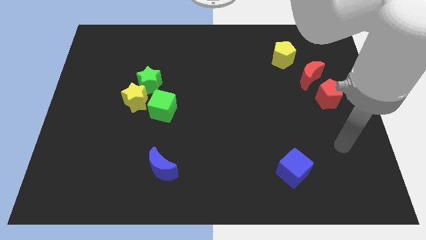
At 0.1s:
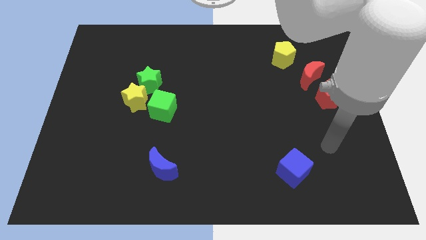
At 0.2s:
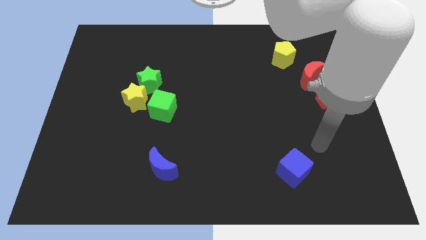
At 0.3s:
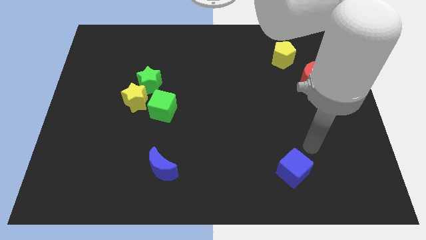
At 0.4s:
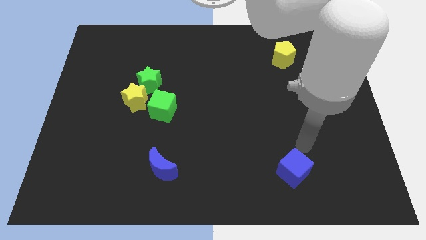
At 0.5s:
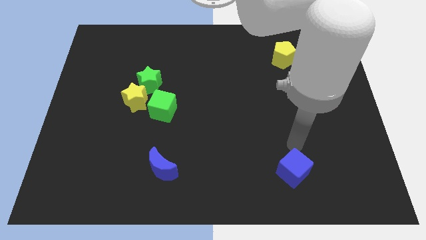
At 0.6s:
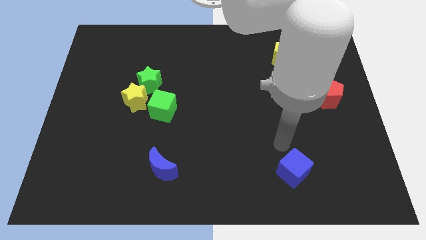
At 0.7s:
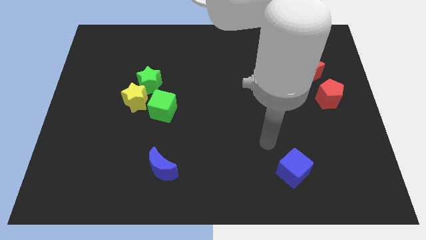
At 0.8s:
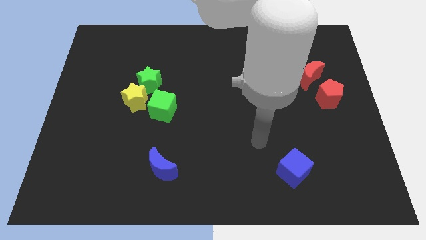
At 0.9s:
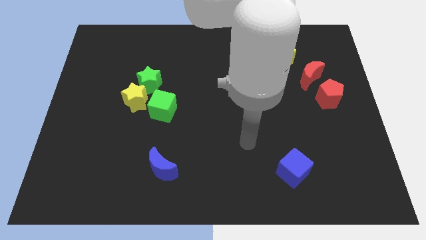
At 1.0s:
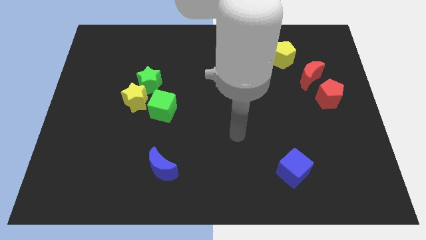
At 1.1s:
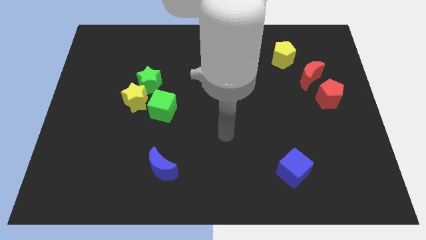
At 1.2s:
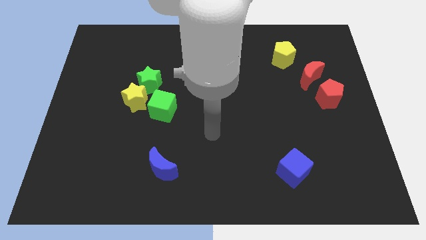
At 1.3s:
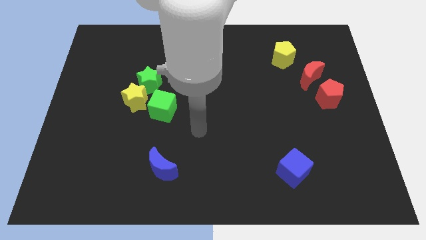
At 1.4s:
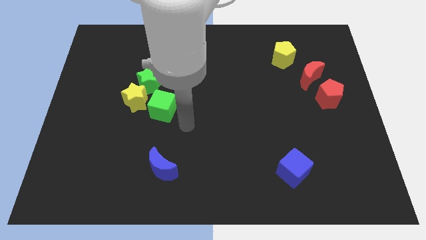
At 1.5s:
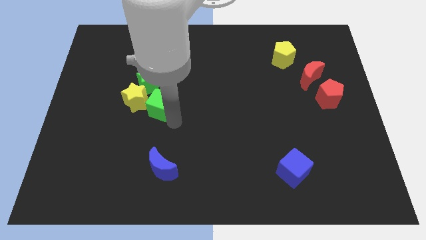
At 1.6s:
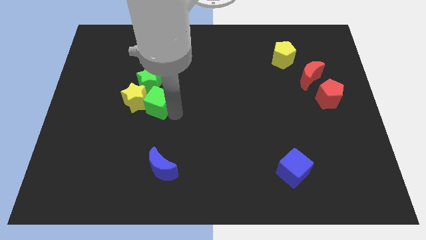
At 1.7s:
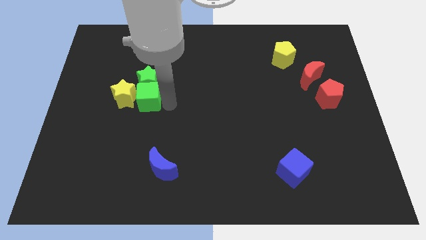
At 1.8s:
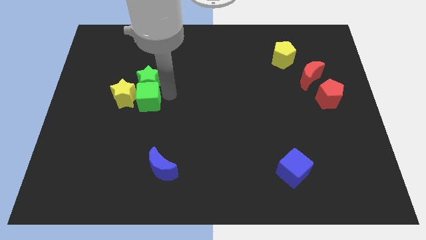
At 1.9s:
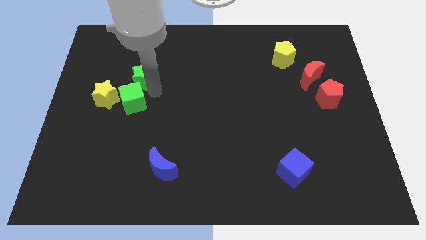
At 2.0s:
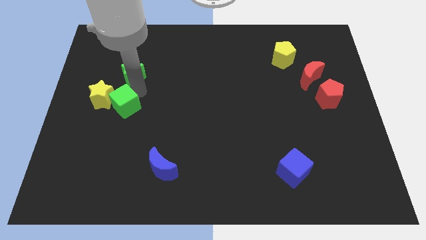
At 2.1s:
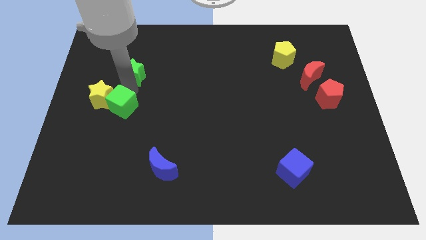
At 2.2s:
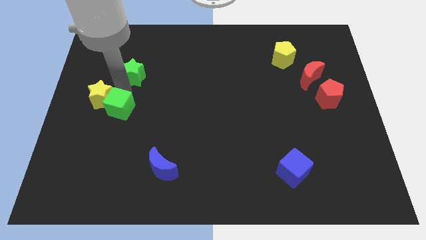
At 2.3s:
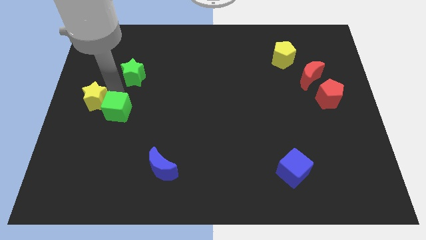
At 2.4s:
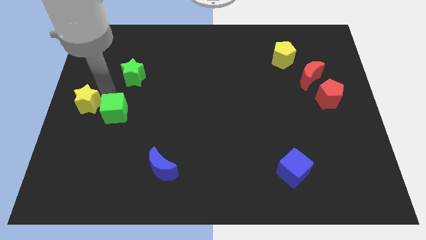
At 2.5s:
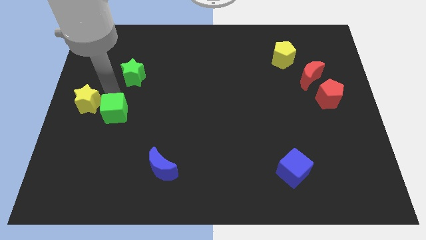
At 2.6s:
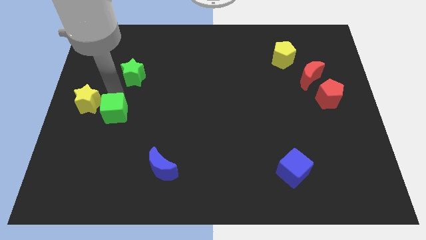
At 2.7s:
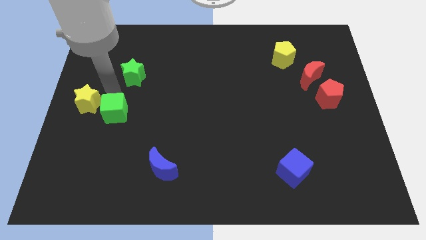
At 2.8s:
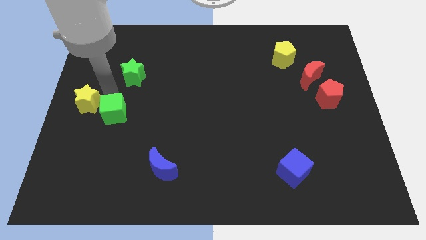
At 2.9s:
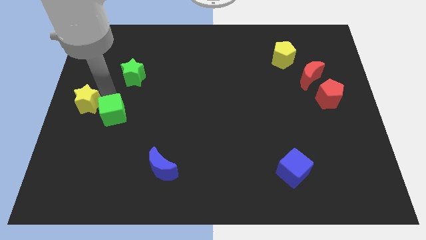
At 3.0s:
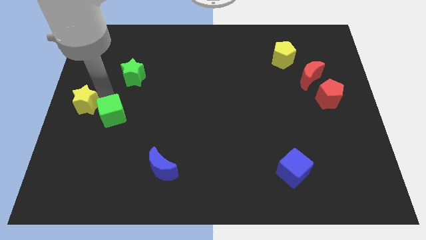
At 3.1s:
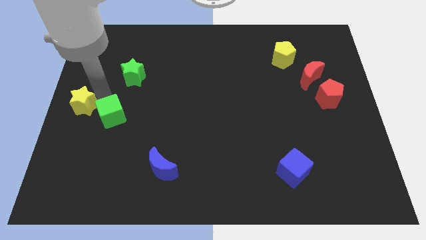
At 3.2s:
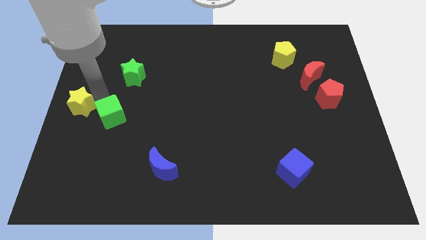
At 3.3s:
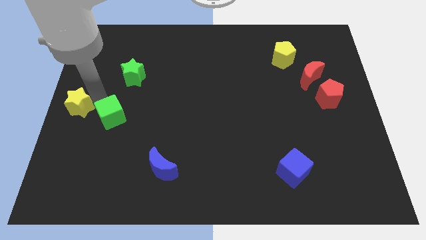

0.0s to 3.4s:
pull the yellow star apart from the green star and green cube

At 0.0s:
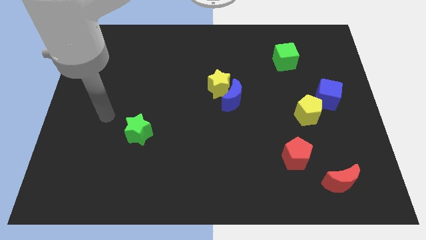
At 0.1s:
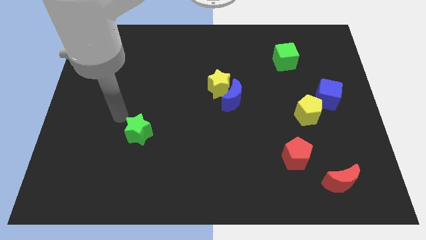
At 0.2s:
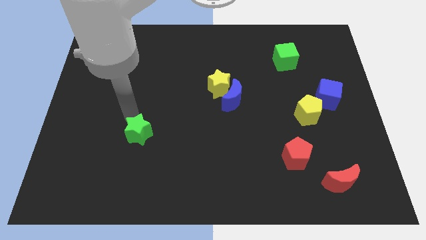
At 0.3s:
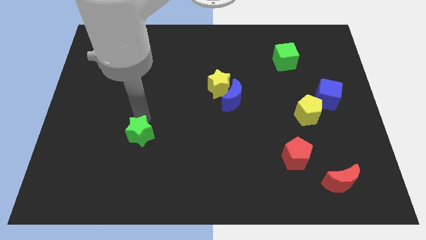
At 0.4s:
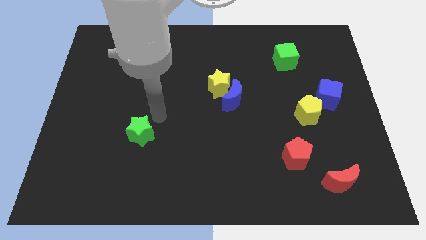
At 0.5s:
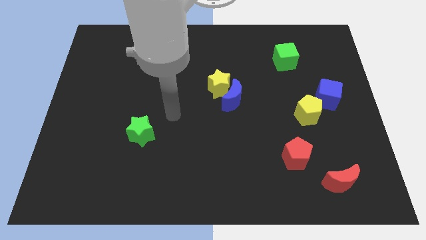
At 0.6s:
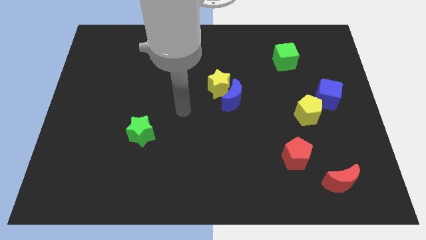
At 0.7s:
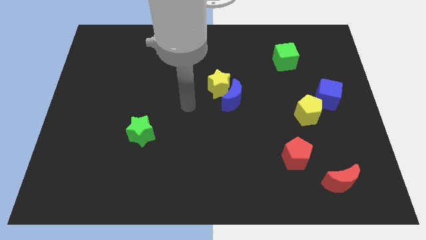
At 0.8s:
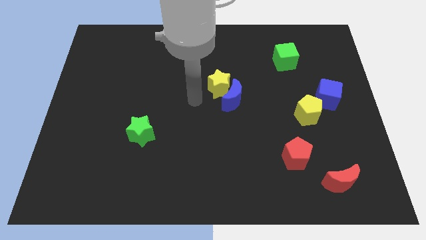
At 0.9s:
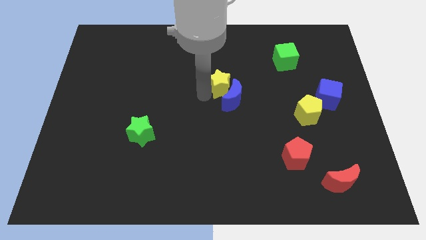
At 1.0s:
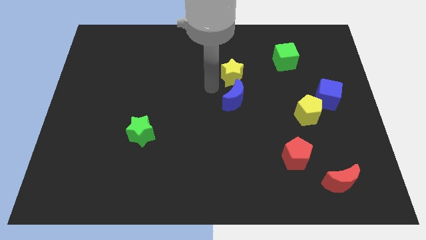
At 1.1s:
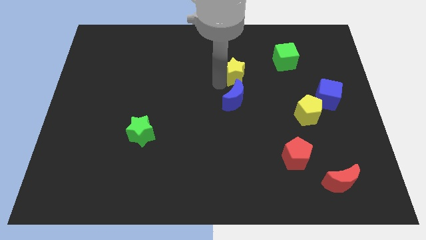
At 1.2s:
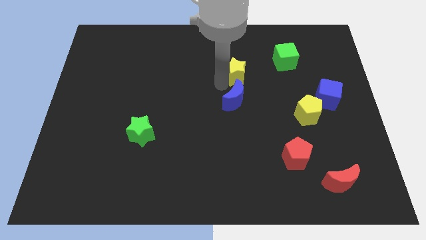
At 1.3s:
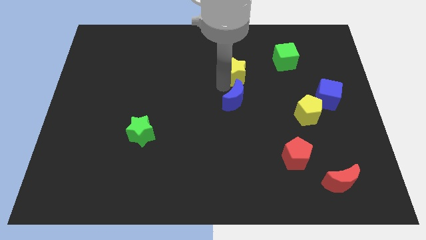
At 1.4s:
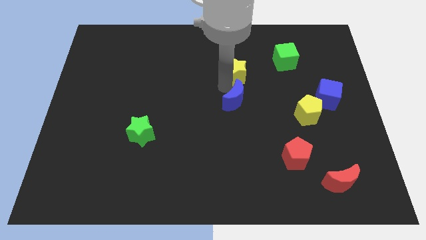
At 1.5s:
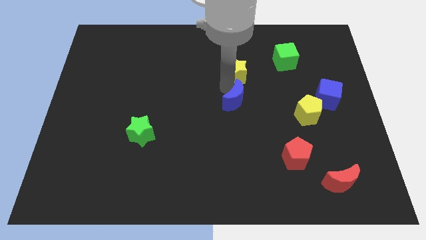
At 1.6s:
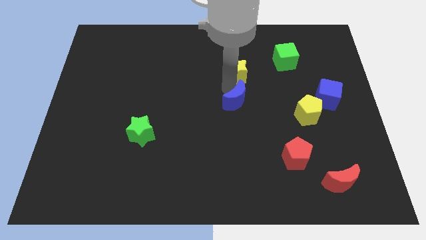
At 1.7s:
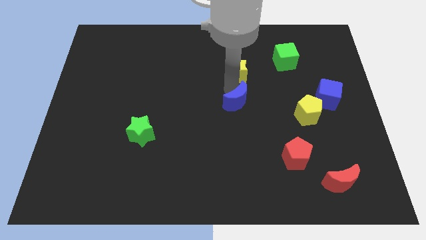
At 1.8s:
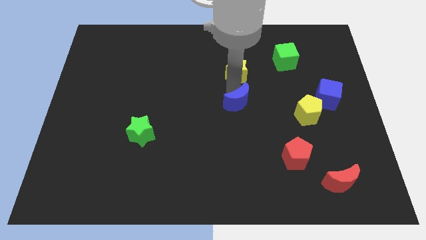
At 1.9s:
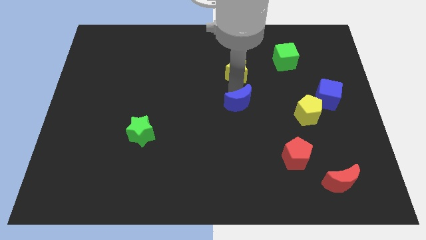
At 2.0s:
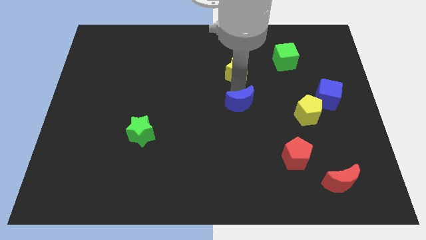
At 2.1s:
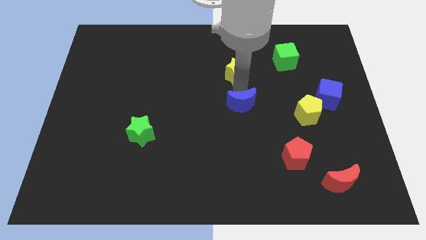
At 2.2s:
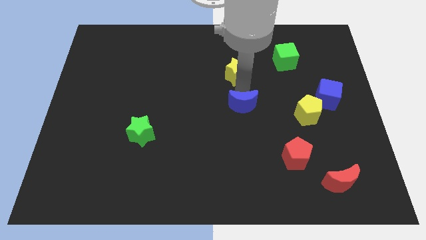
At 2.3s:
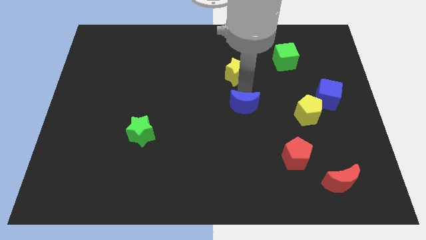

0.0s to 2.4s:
pull the blue moon apart from the yellow star

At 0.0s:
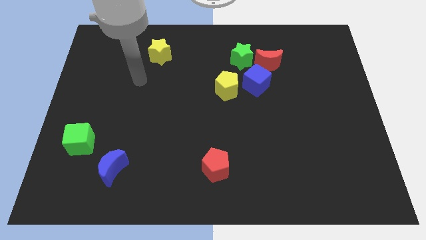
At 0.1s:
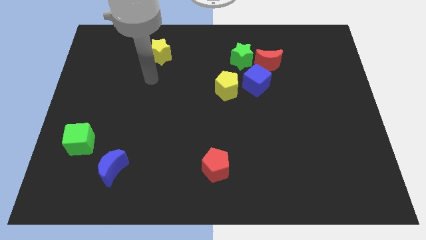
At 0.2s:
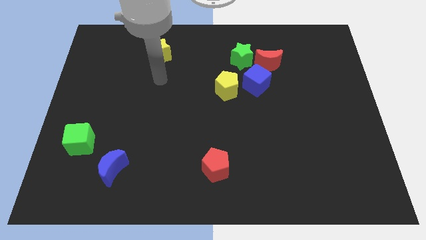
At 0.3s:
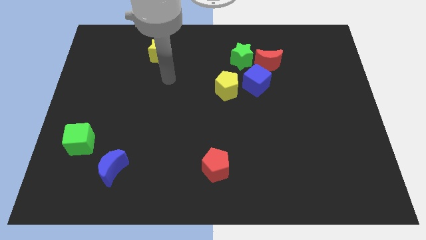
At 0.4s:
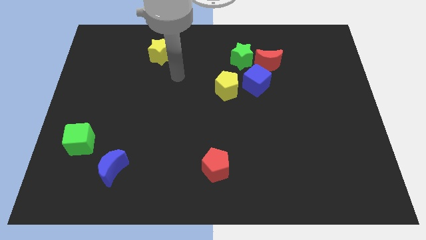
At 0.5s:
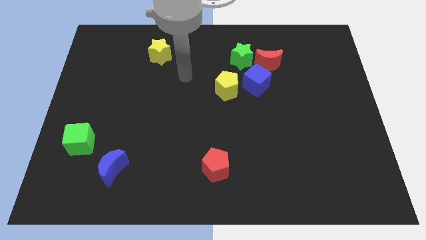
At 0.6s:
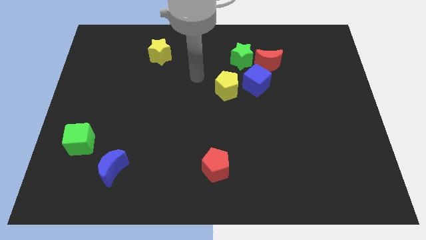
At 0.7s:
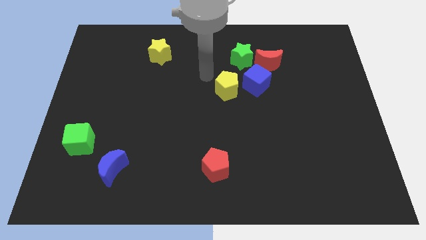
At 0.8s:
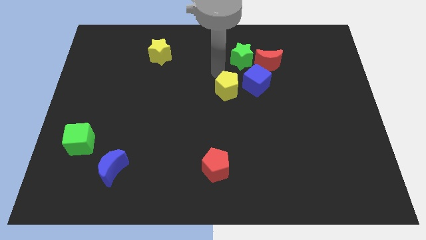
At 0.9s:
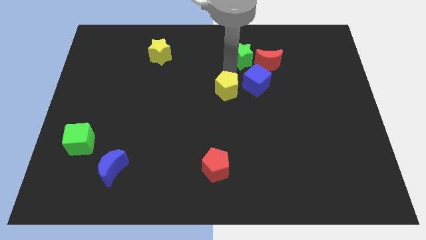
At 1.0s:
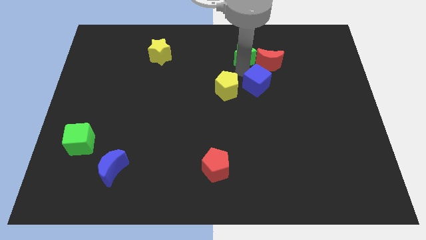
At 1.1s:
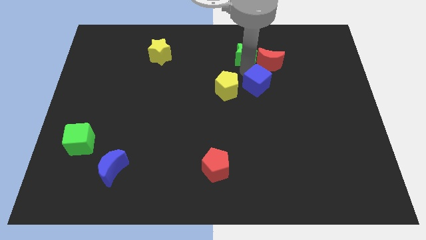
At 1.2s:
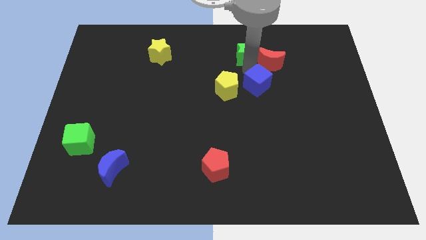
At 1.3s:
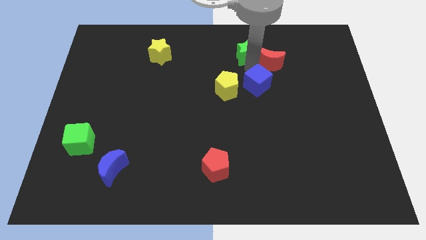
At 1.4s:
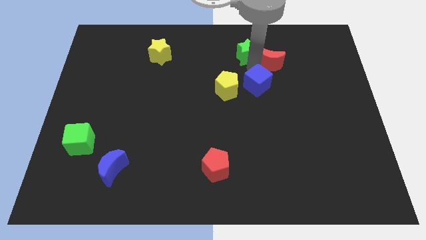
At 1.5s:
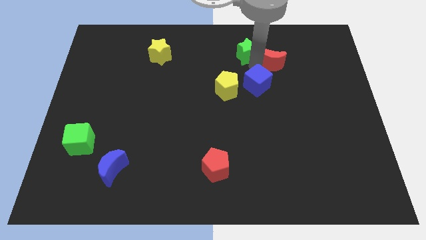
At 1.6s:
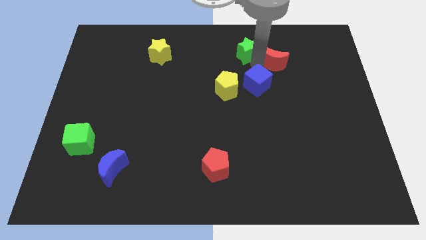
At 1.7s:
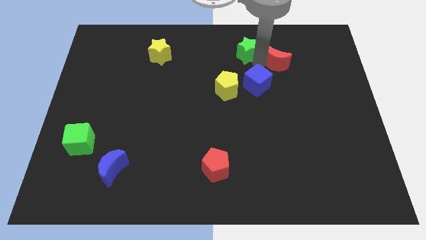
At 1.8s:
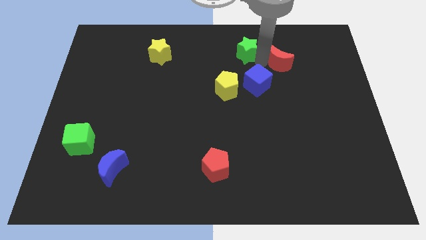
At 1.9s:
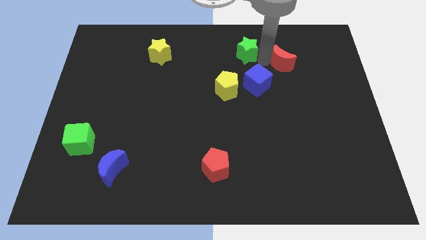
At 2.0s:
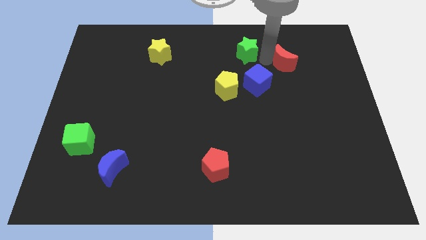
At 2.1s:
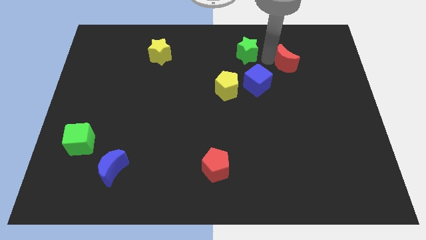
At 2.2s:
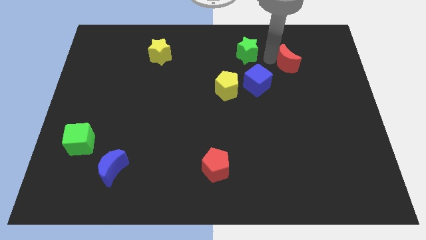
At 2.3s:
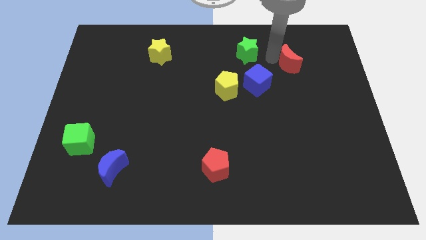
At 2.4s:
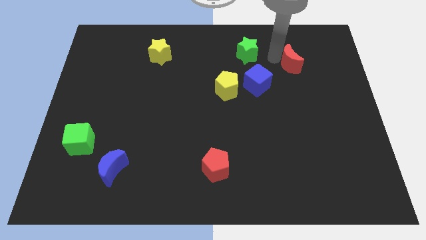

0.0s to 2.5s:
separate the red moon from the green star and blue cube

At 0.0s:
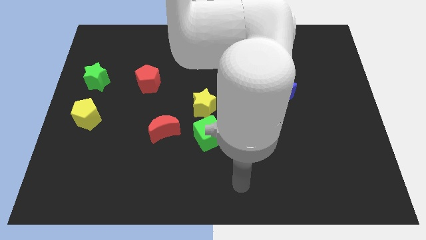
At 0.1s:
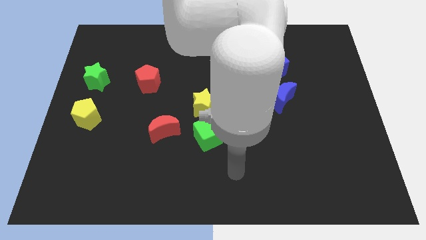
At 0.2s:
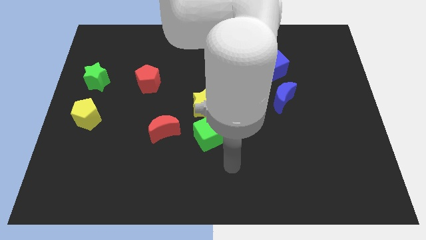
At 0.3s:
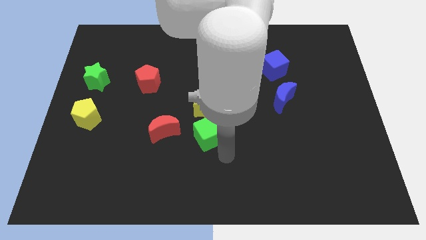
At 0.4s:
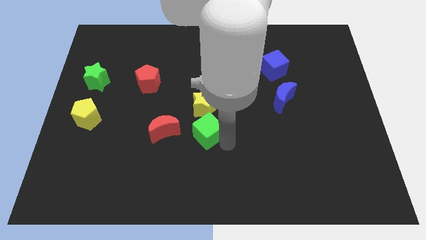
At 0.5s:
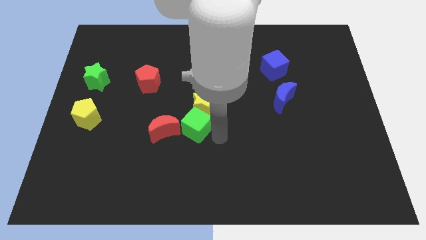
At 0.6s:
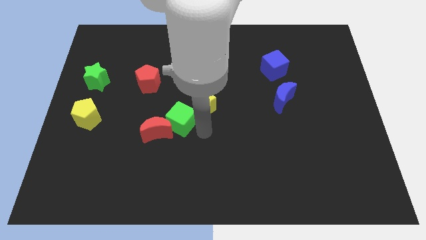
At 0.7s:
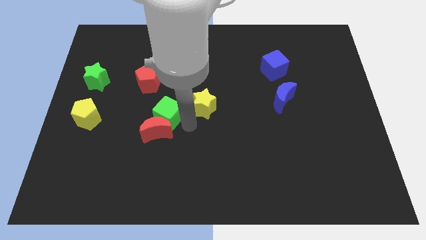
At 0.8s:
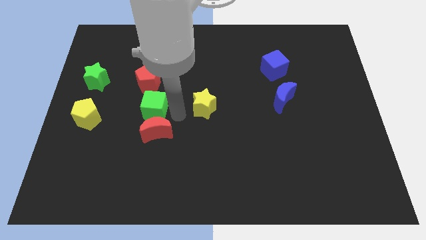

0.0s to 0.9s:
separate the yellow star from the green cube

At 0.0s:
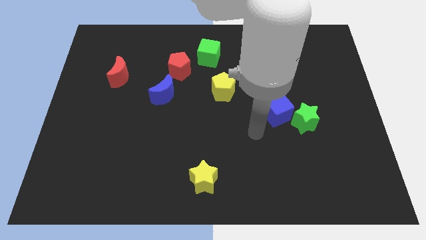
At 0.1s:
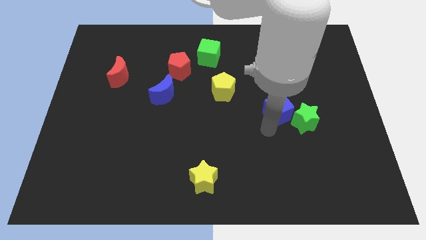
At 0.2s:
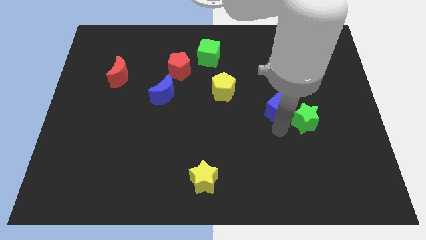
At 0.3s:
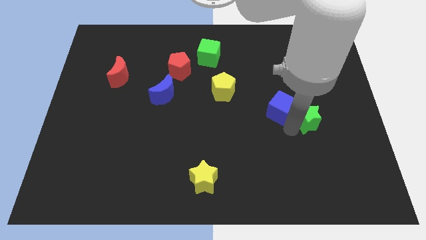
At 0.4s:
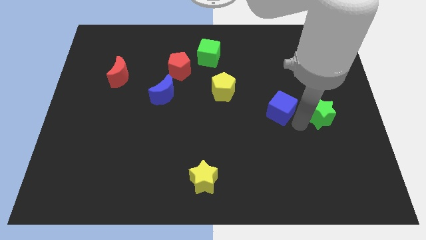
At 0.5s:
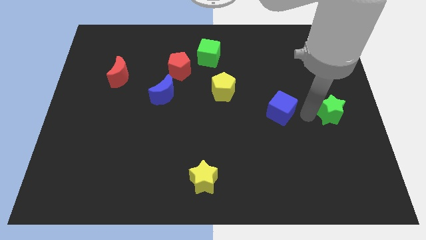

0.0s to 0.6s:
move the blue cube away from the green star
